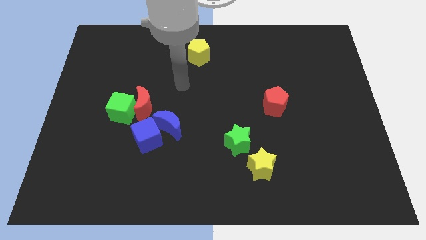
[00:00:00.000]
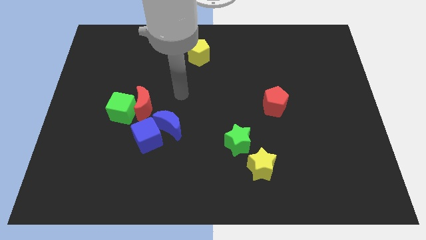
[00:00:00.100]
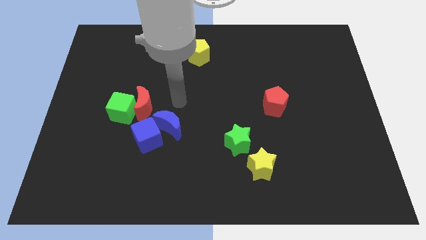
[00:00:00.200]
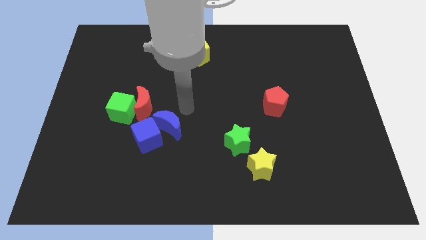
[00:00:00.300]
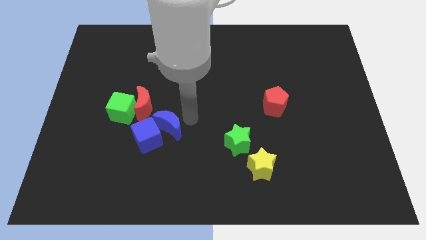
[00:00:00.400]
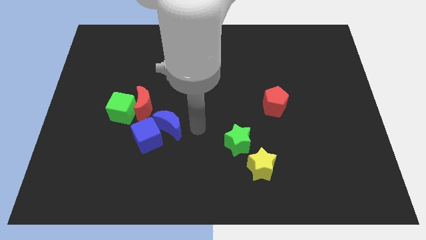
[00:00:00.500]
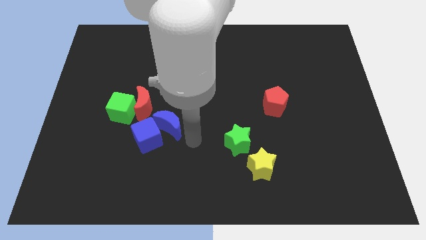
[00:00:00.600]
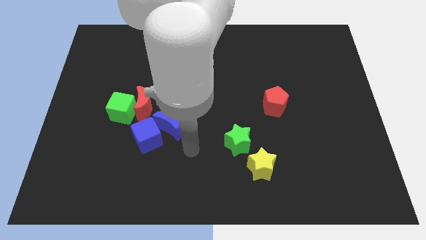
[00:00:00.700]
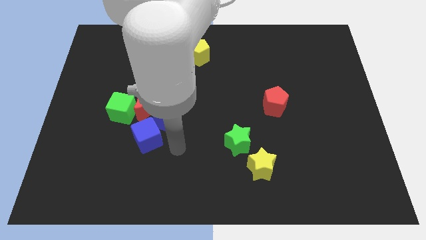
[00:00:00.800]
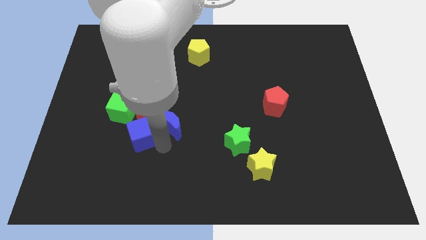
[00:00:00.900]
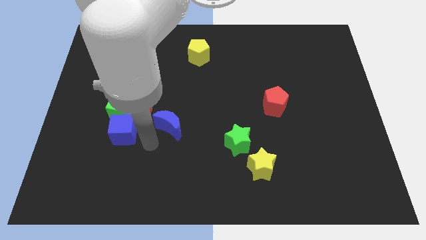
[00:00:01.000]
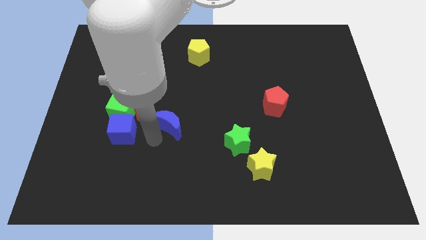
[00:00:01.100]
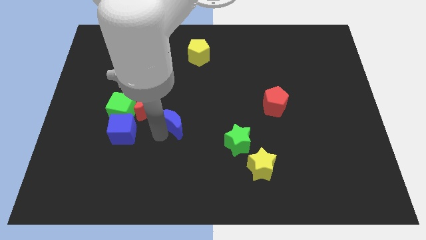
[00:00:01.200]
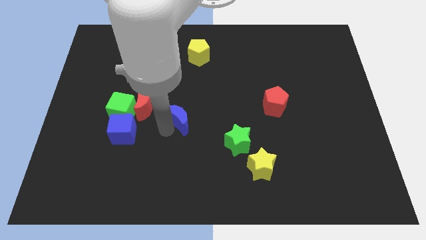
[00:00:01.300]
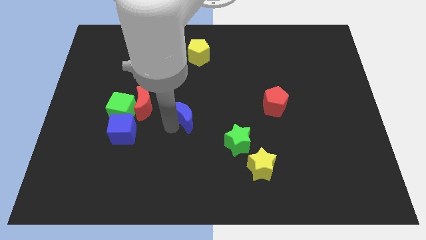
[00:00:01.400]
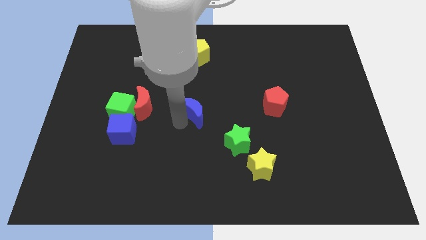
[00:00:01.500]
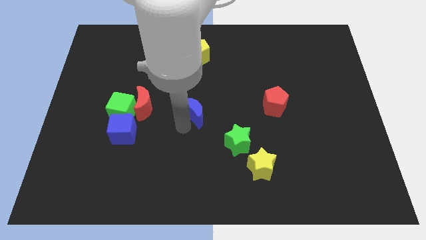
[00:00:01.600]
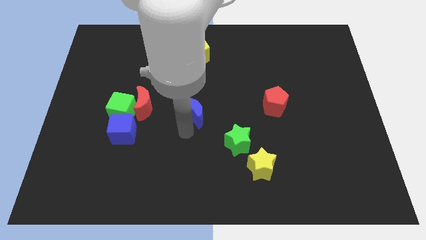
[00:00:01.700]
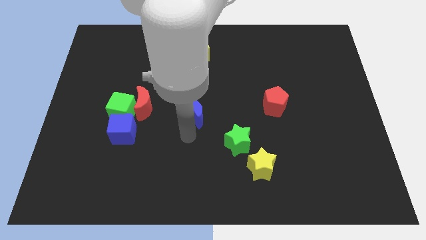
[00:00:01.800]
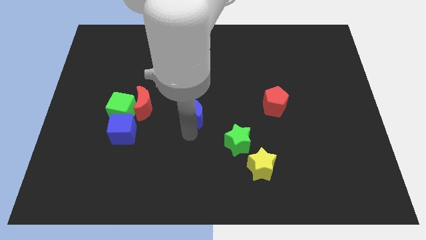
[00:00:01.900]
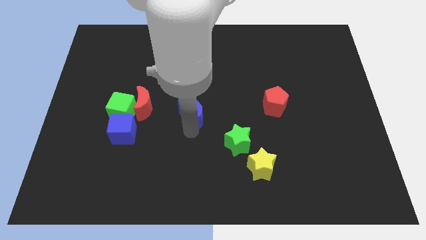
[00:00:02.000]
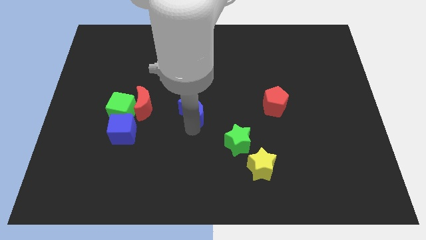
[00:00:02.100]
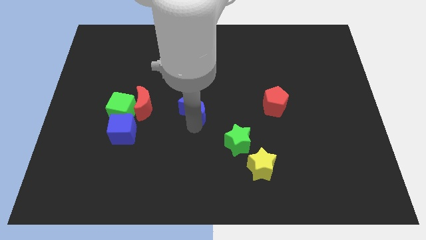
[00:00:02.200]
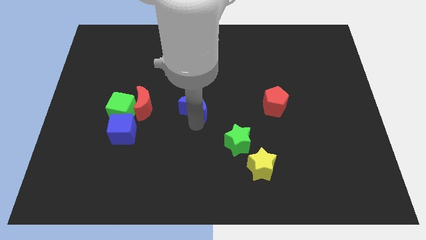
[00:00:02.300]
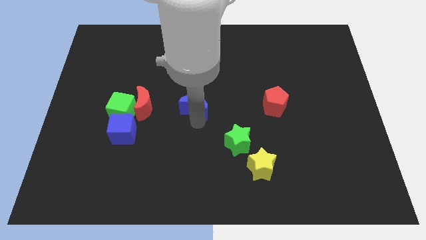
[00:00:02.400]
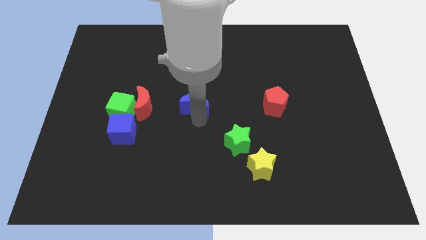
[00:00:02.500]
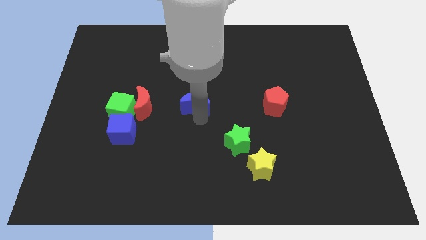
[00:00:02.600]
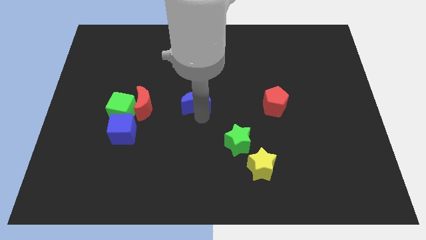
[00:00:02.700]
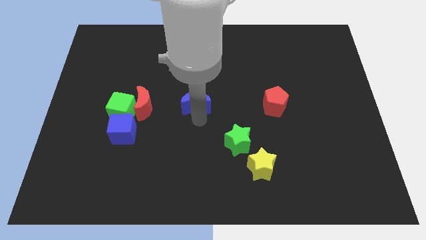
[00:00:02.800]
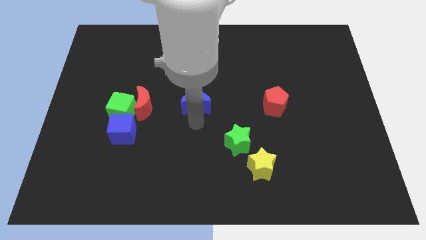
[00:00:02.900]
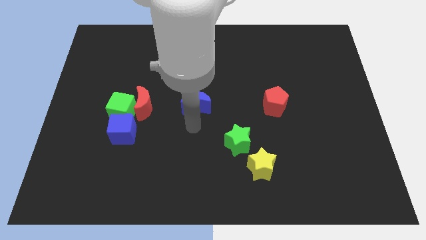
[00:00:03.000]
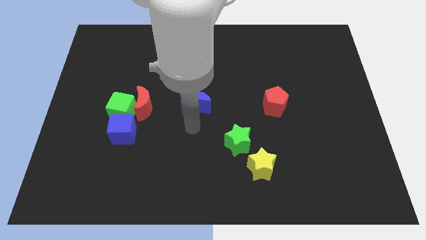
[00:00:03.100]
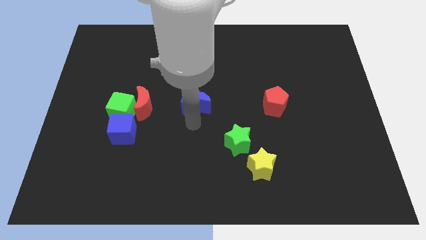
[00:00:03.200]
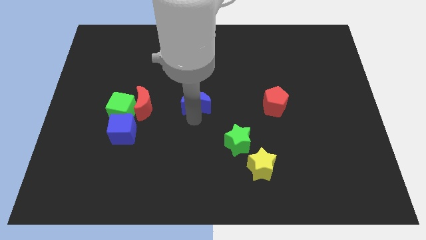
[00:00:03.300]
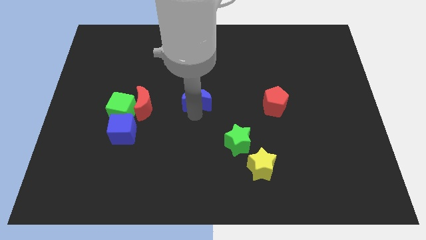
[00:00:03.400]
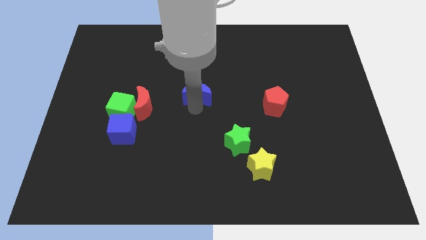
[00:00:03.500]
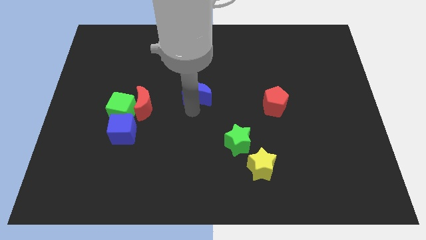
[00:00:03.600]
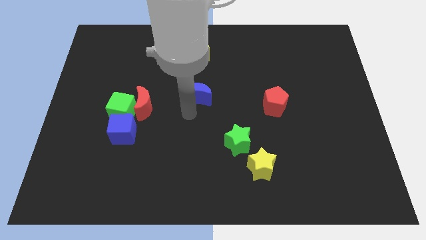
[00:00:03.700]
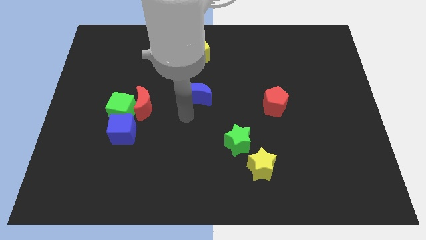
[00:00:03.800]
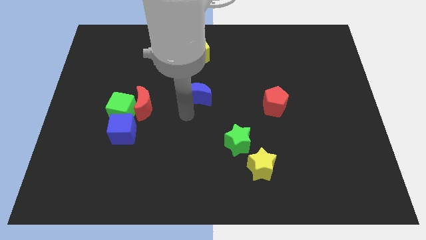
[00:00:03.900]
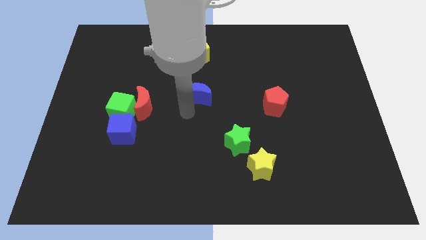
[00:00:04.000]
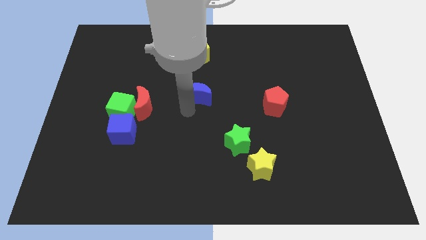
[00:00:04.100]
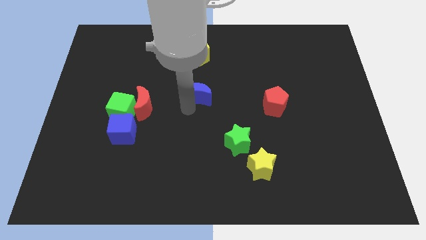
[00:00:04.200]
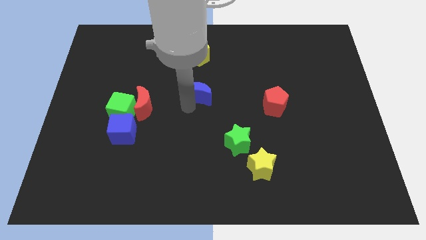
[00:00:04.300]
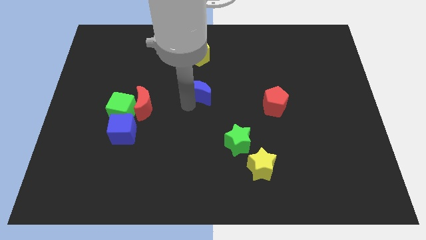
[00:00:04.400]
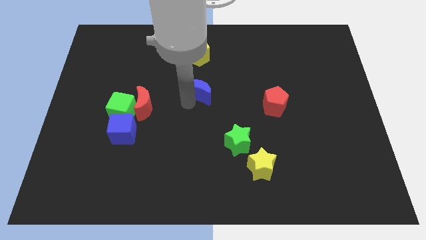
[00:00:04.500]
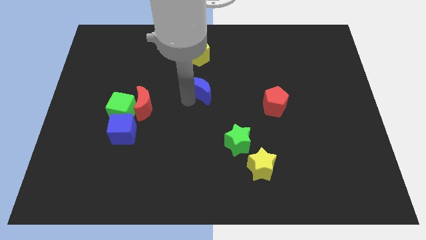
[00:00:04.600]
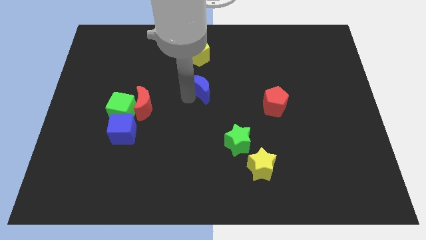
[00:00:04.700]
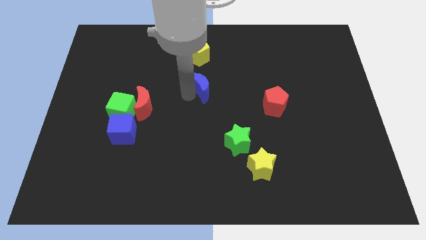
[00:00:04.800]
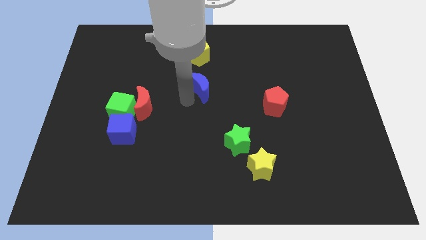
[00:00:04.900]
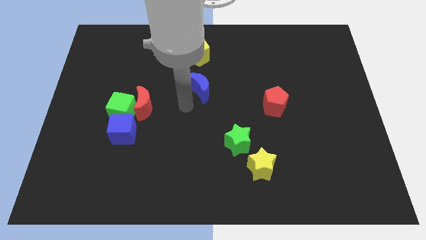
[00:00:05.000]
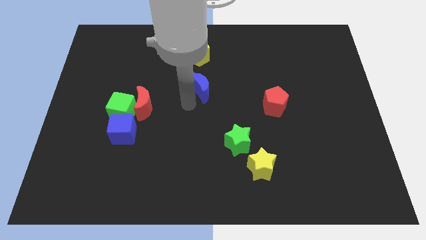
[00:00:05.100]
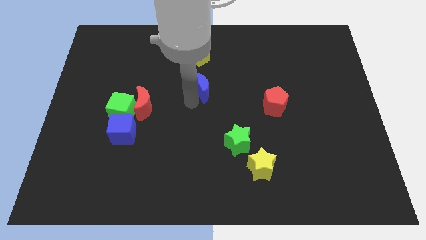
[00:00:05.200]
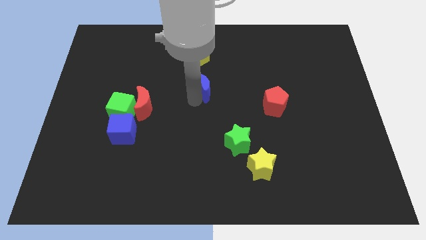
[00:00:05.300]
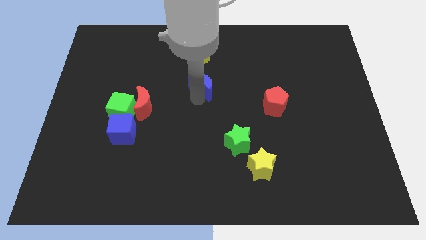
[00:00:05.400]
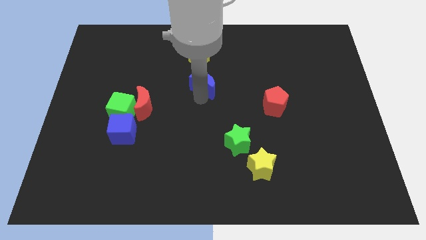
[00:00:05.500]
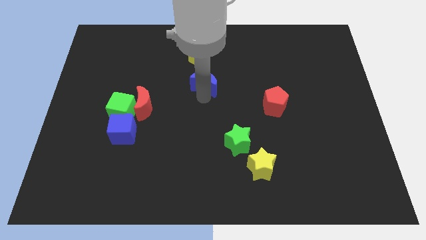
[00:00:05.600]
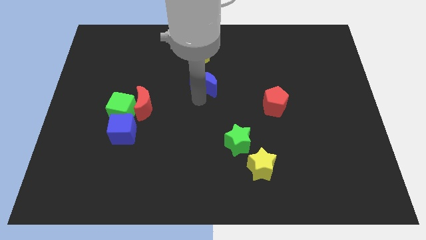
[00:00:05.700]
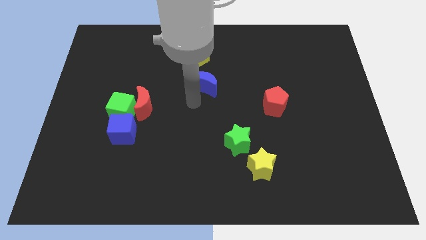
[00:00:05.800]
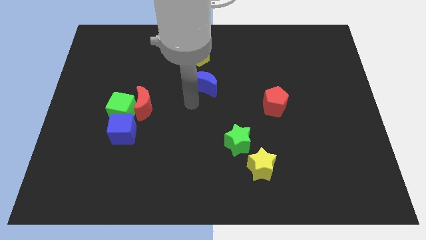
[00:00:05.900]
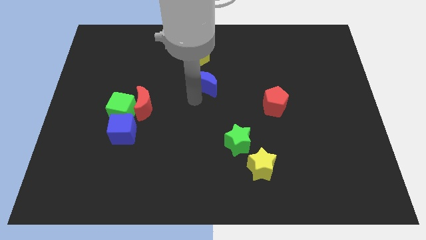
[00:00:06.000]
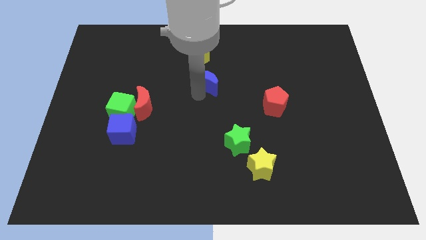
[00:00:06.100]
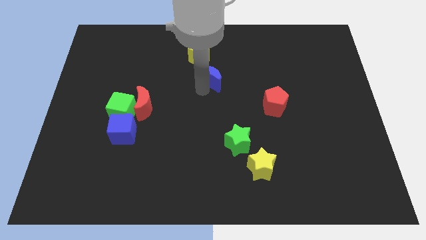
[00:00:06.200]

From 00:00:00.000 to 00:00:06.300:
put the blue moon to the bottom right side of the yellow pentagon
